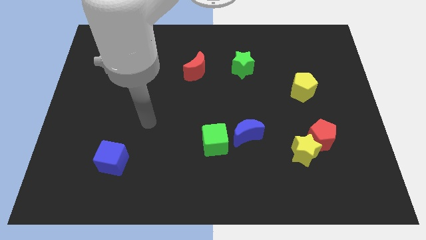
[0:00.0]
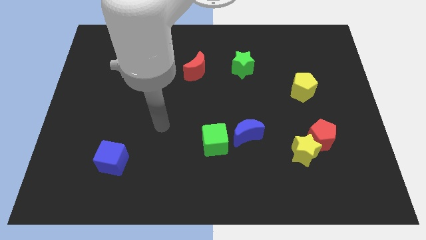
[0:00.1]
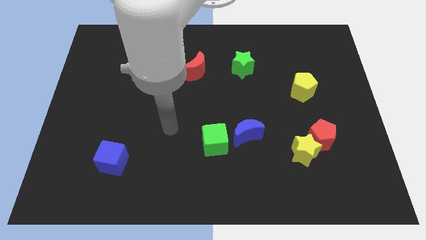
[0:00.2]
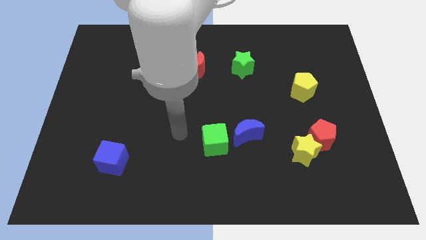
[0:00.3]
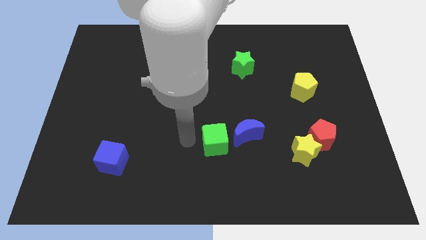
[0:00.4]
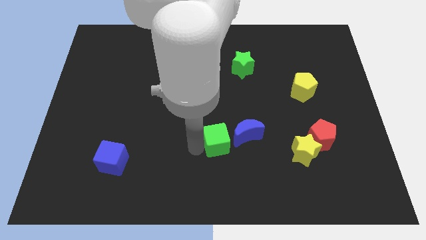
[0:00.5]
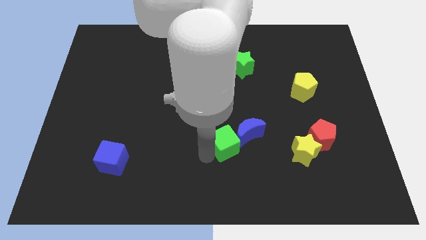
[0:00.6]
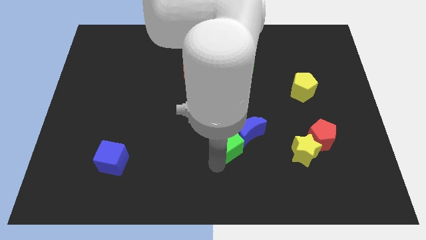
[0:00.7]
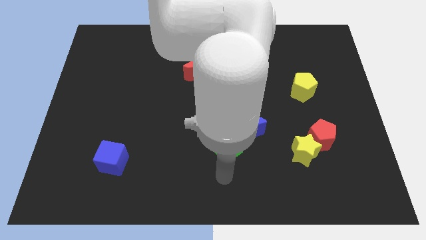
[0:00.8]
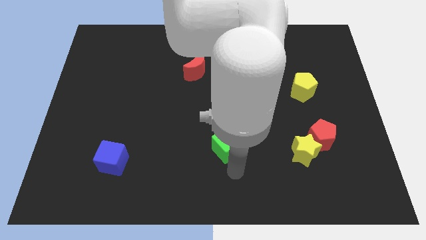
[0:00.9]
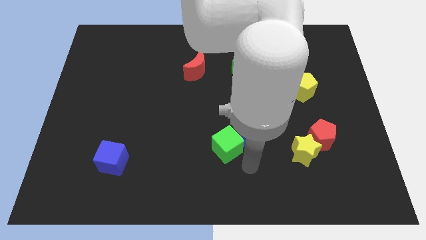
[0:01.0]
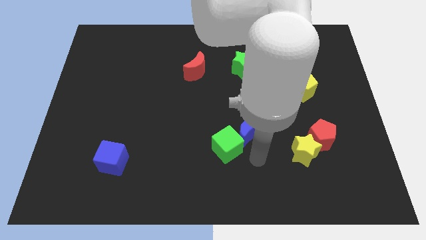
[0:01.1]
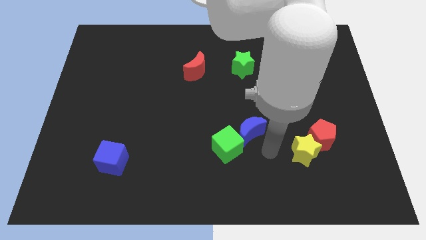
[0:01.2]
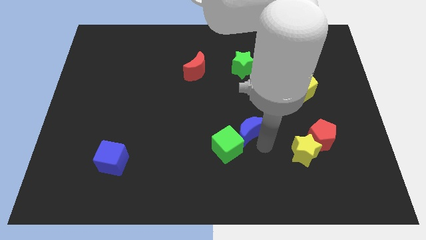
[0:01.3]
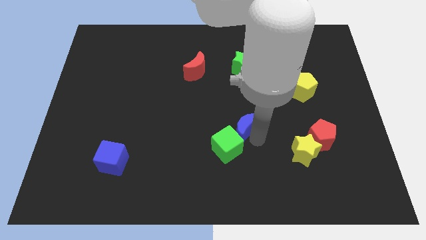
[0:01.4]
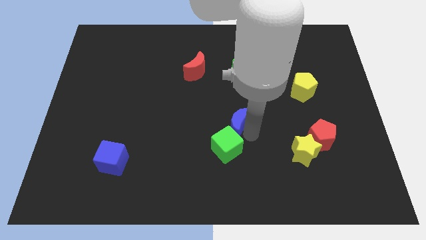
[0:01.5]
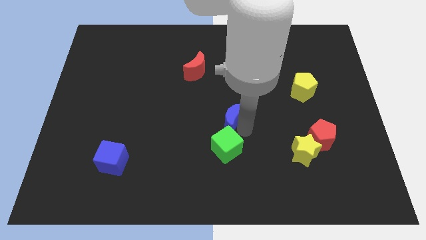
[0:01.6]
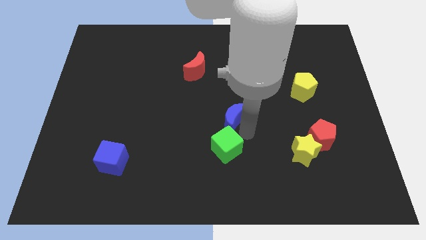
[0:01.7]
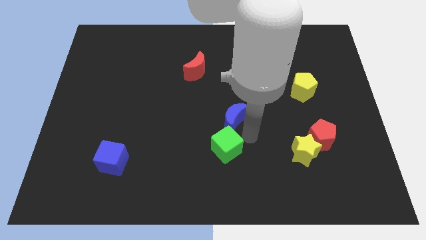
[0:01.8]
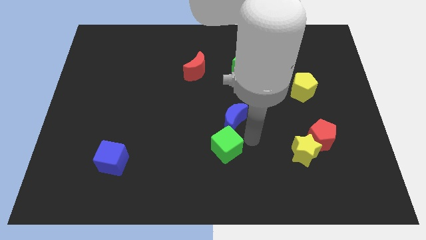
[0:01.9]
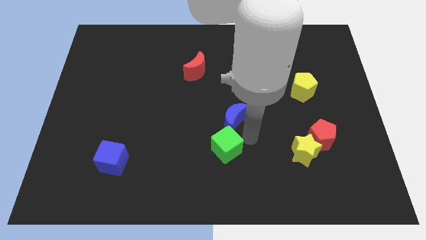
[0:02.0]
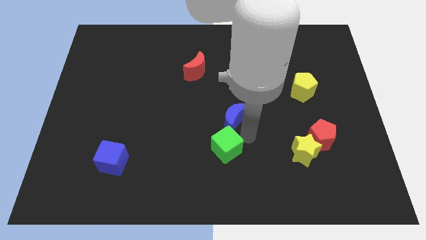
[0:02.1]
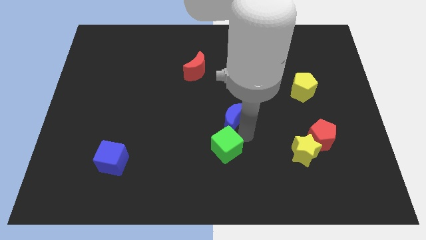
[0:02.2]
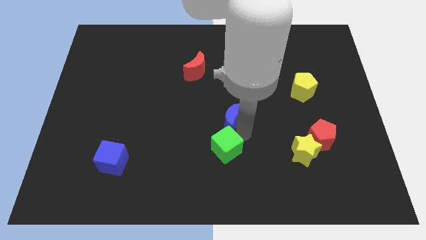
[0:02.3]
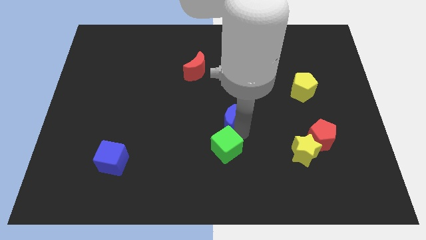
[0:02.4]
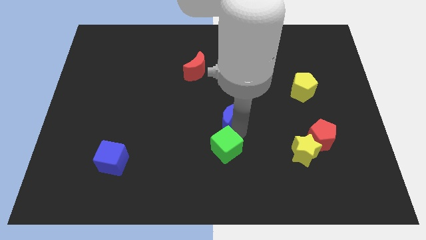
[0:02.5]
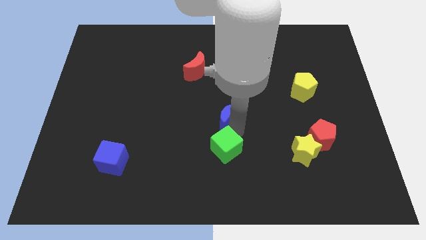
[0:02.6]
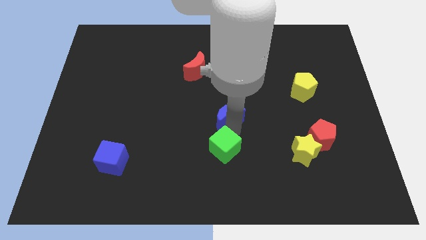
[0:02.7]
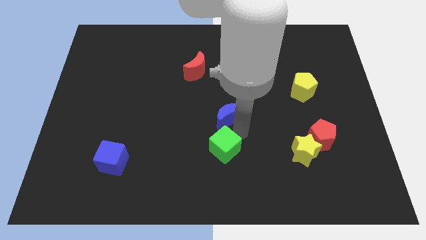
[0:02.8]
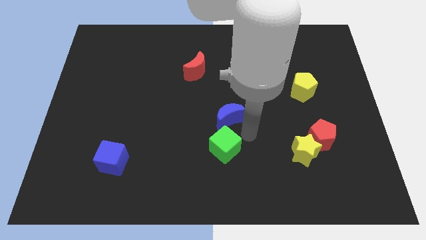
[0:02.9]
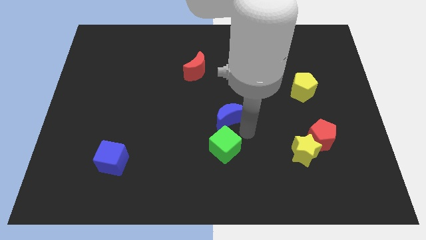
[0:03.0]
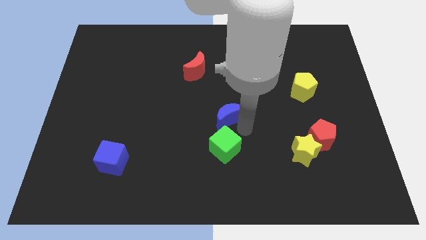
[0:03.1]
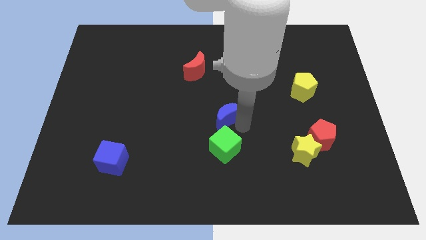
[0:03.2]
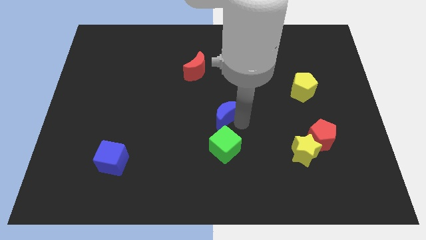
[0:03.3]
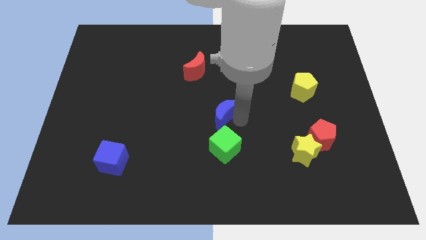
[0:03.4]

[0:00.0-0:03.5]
slide the blue moon upwards and to the left somewhat

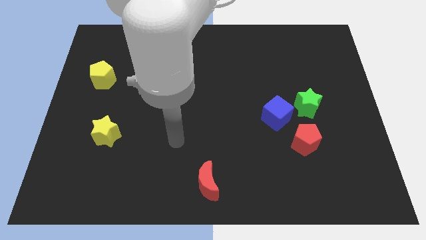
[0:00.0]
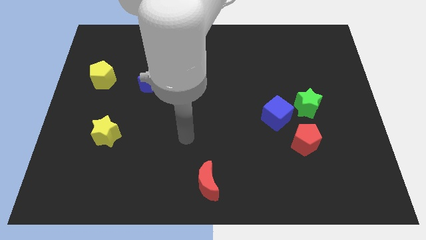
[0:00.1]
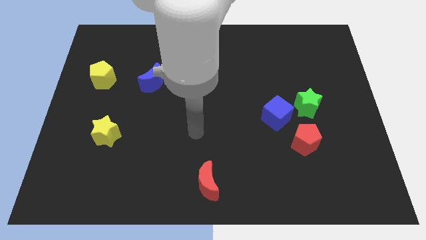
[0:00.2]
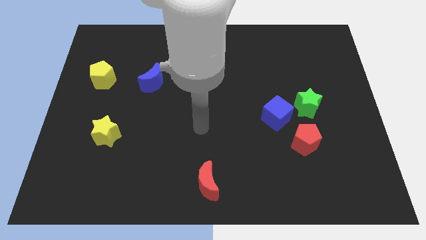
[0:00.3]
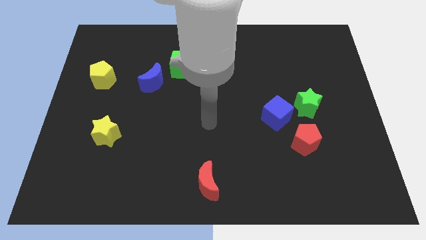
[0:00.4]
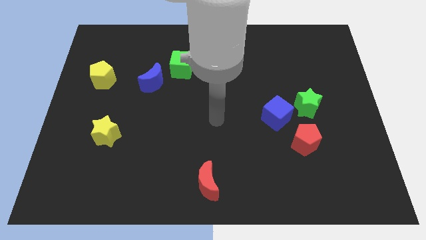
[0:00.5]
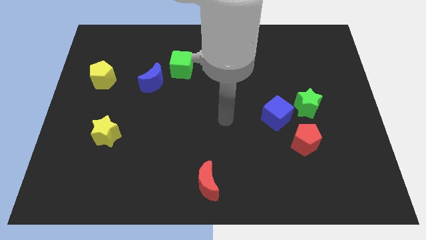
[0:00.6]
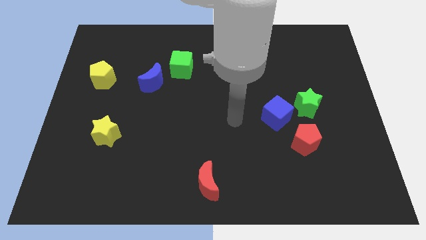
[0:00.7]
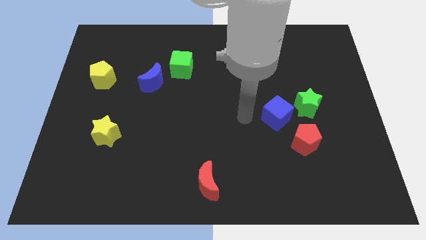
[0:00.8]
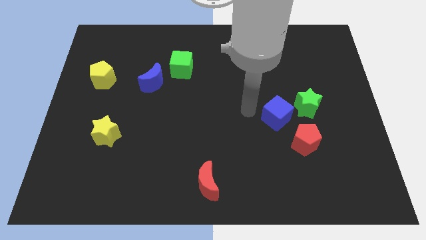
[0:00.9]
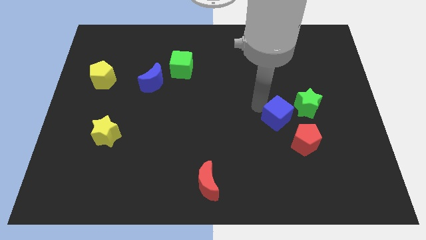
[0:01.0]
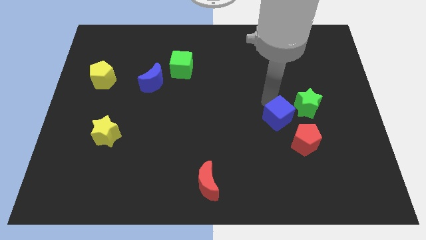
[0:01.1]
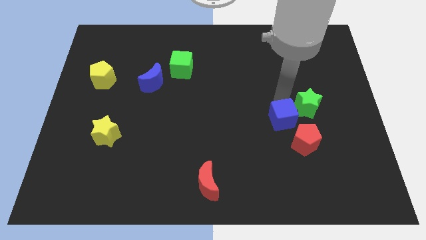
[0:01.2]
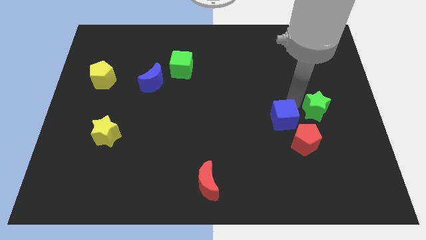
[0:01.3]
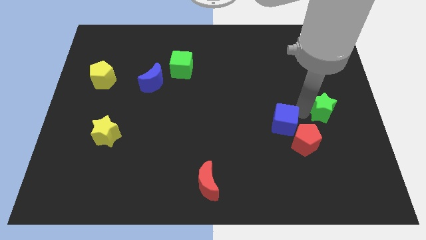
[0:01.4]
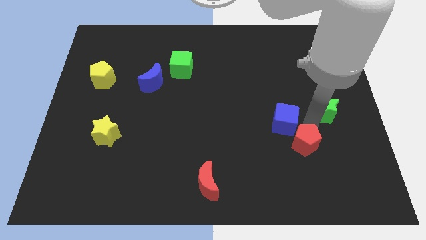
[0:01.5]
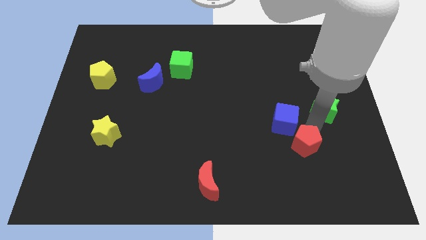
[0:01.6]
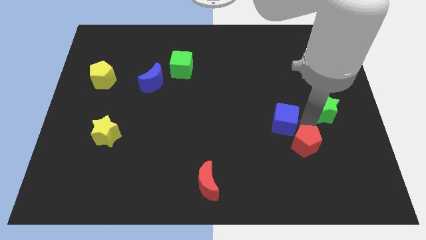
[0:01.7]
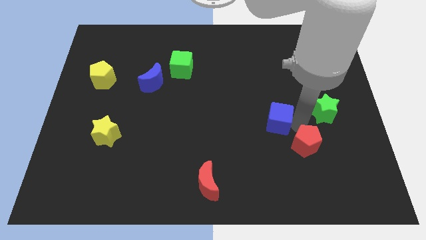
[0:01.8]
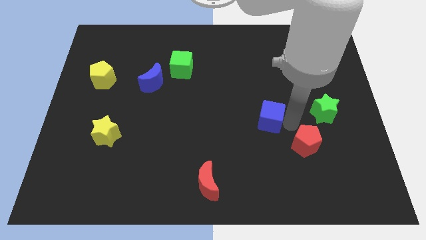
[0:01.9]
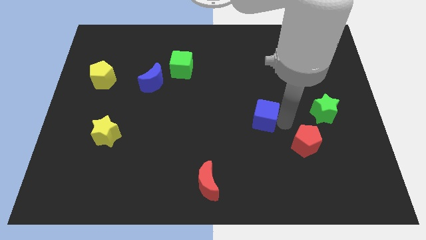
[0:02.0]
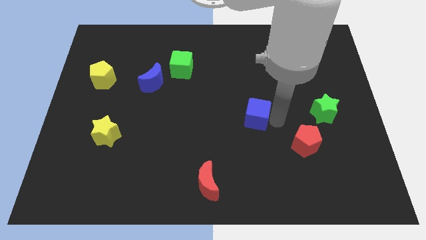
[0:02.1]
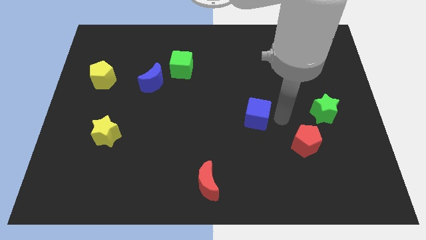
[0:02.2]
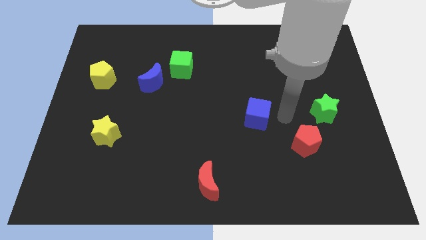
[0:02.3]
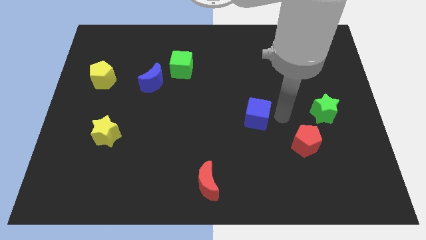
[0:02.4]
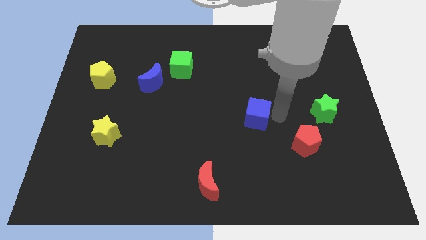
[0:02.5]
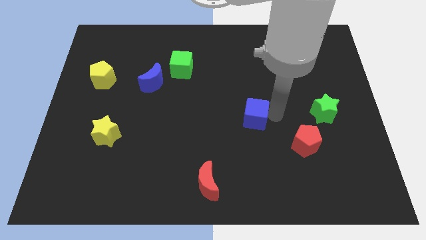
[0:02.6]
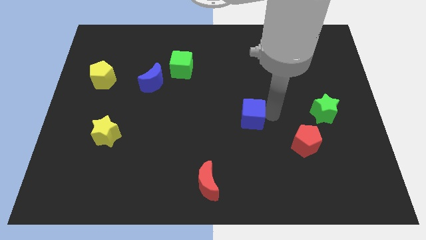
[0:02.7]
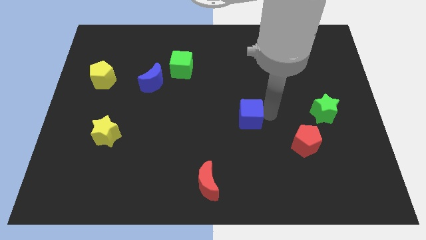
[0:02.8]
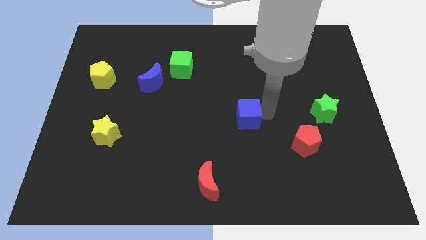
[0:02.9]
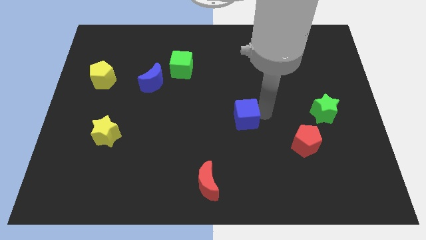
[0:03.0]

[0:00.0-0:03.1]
move the blue cube left somewhat

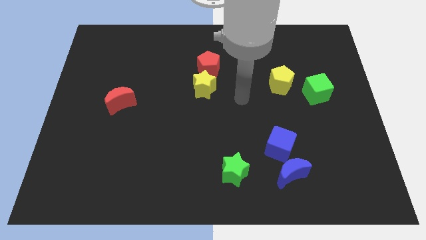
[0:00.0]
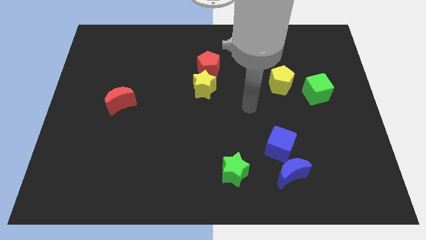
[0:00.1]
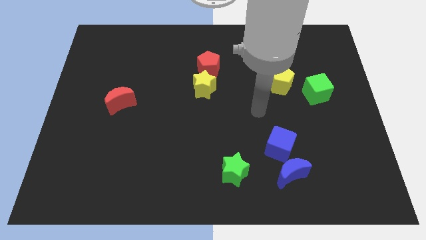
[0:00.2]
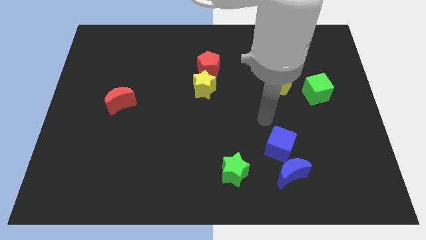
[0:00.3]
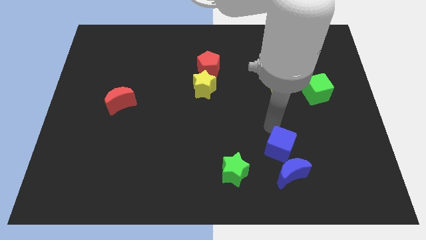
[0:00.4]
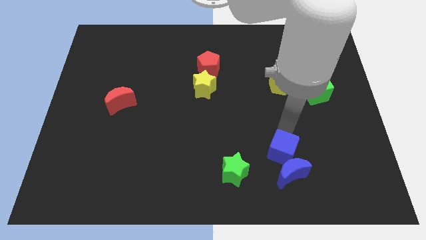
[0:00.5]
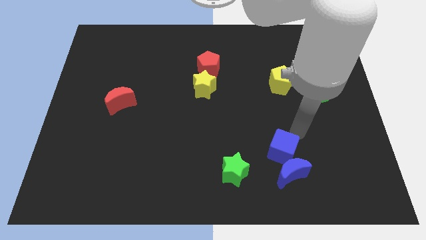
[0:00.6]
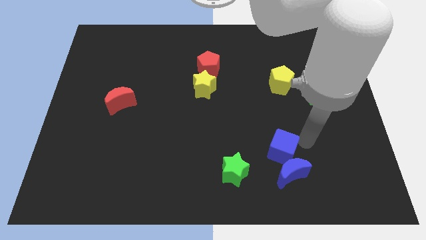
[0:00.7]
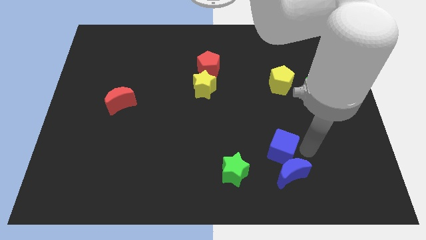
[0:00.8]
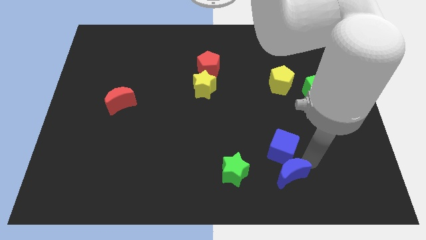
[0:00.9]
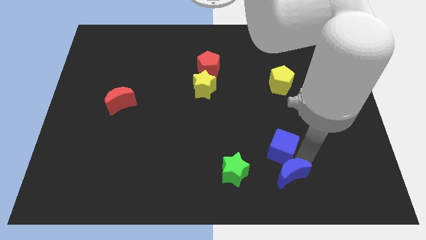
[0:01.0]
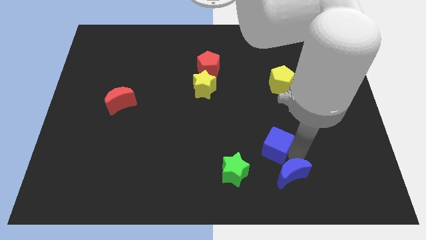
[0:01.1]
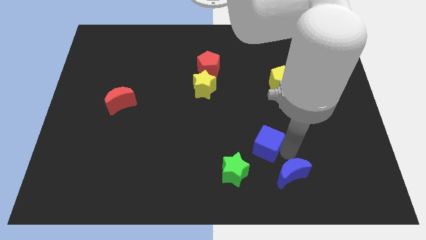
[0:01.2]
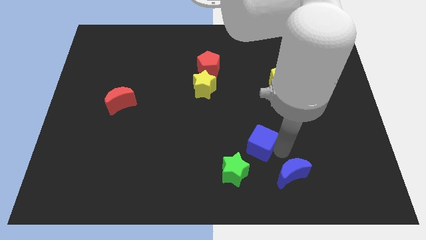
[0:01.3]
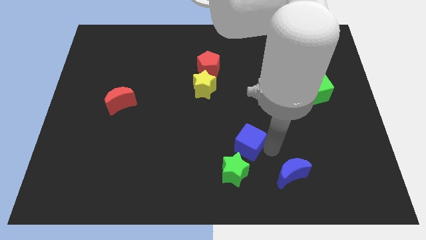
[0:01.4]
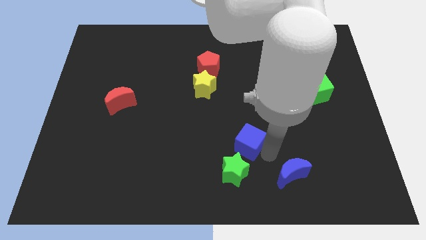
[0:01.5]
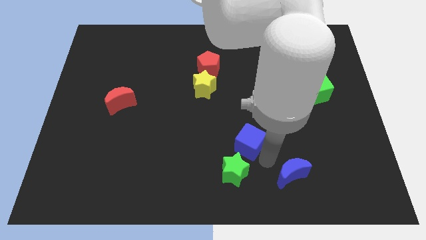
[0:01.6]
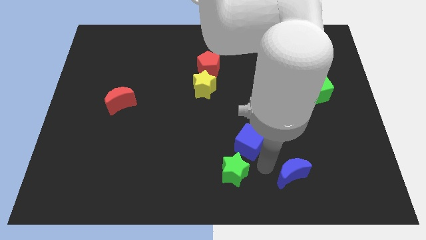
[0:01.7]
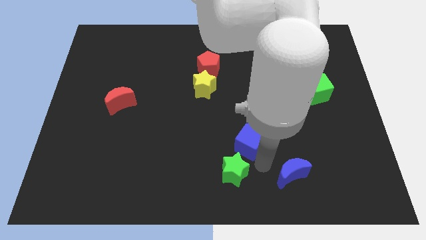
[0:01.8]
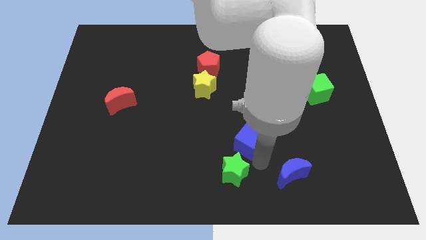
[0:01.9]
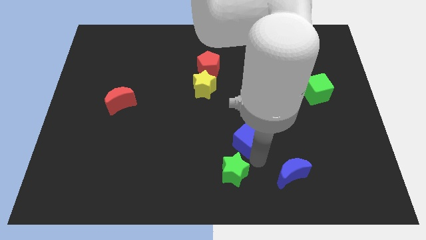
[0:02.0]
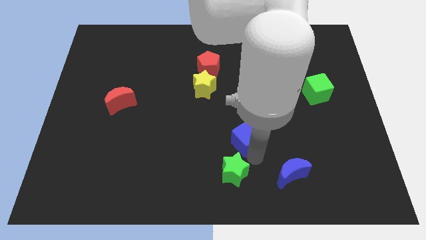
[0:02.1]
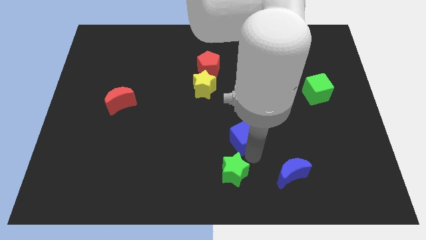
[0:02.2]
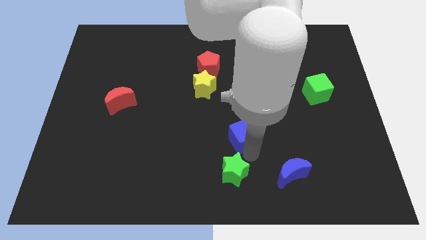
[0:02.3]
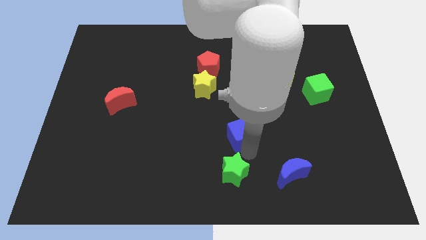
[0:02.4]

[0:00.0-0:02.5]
move the blue cube a little up and left diagonally
